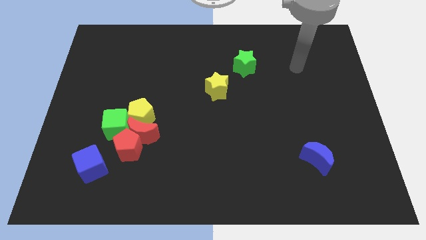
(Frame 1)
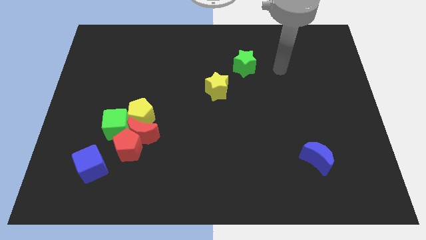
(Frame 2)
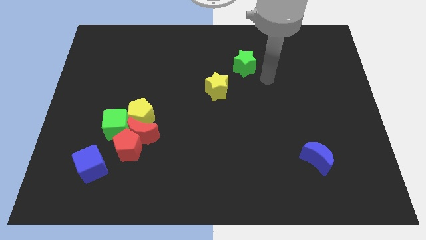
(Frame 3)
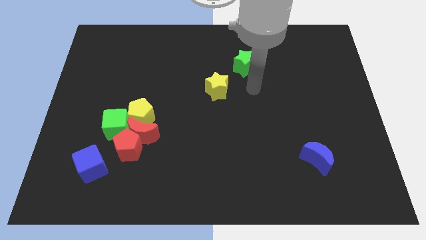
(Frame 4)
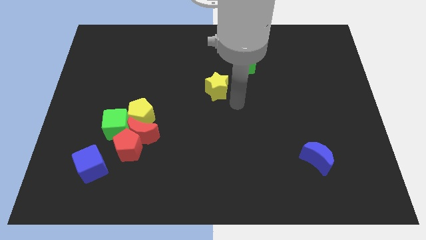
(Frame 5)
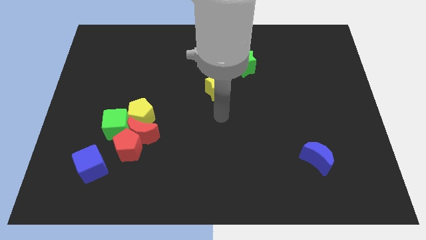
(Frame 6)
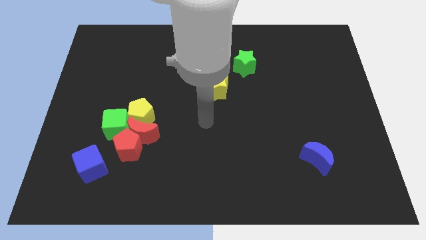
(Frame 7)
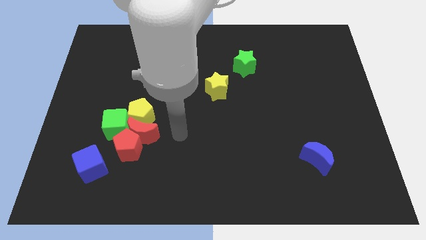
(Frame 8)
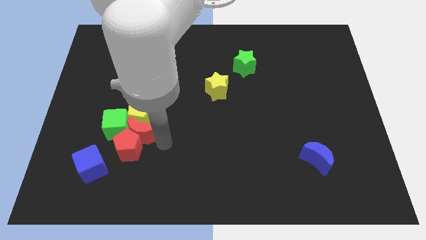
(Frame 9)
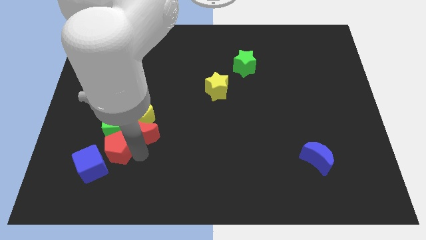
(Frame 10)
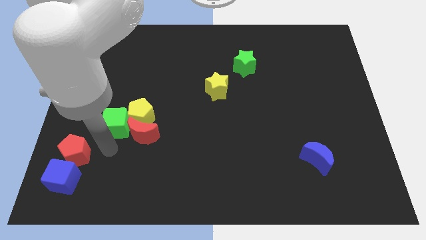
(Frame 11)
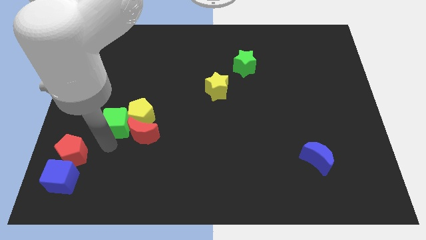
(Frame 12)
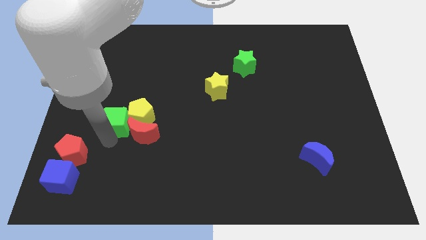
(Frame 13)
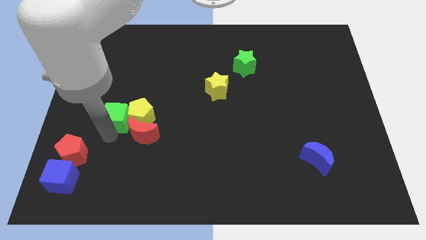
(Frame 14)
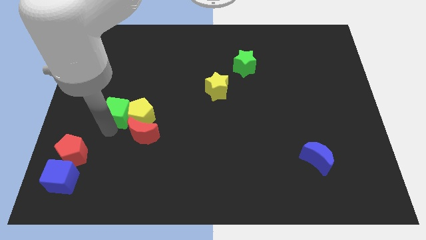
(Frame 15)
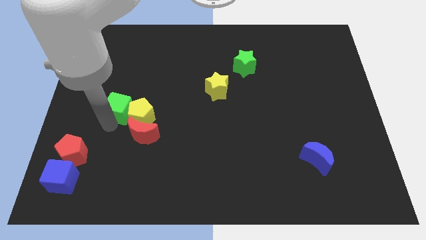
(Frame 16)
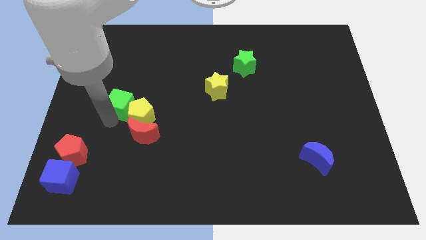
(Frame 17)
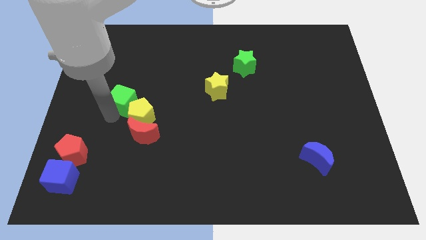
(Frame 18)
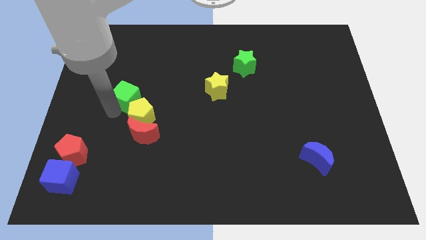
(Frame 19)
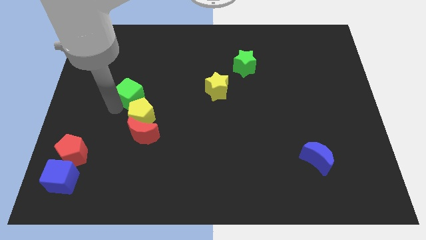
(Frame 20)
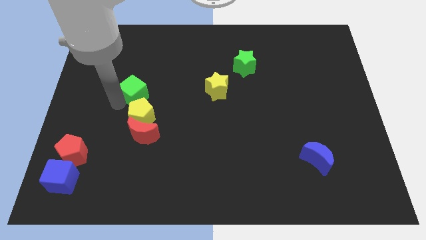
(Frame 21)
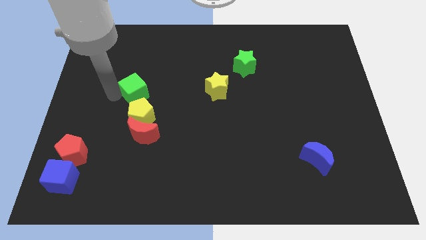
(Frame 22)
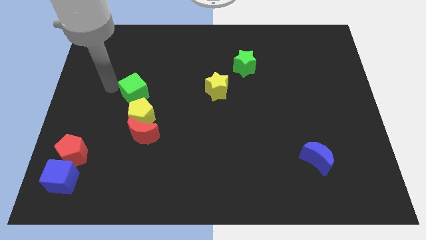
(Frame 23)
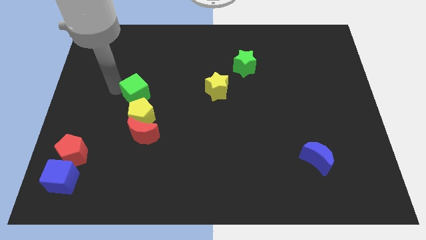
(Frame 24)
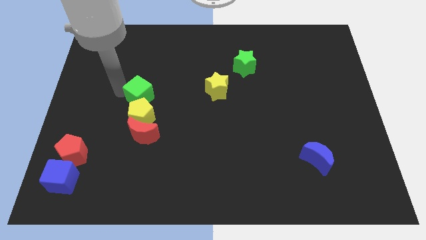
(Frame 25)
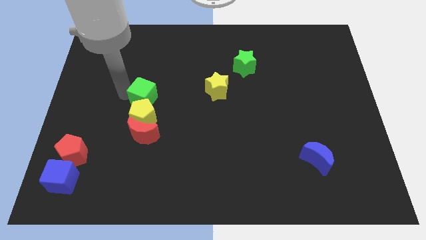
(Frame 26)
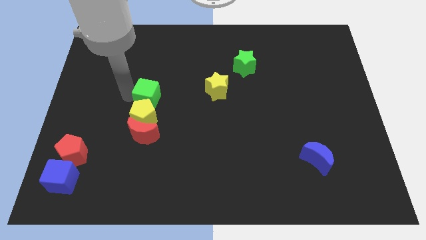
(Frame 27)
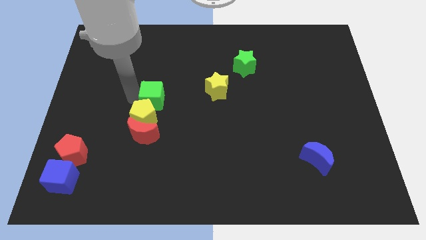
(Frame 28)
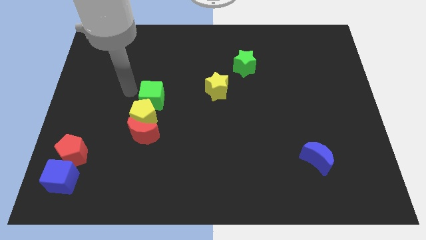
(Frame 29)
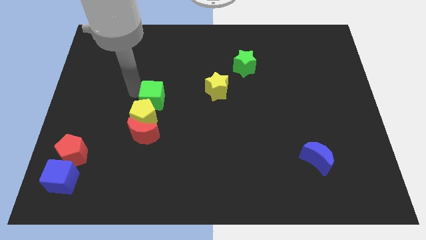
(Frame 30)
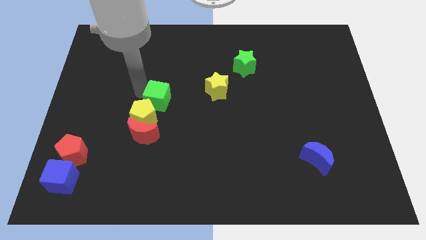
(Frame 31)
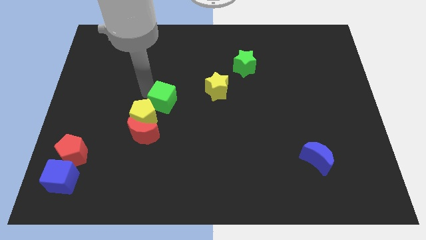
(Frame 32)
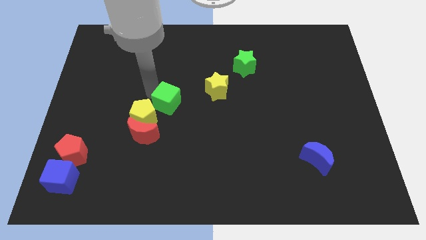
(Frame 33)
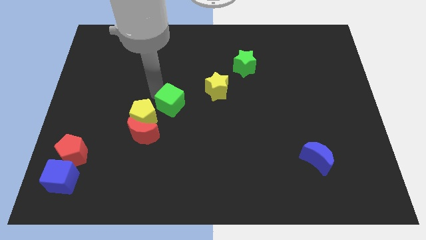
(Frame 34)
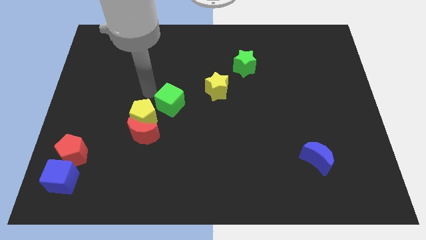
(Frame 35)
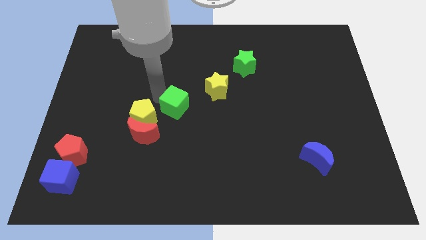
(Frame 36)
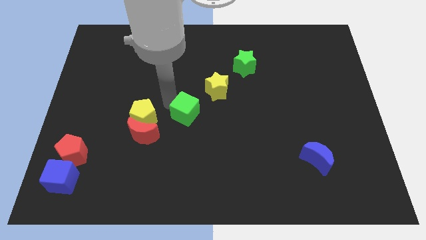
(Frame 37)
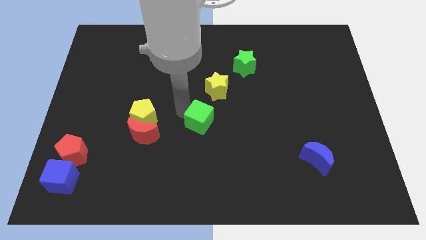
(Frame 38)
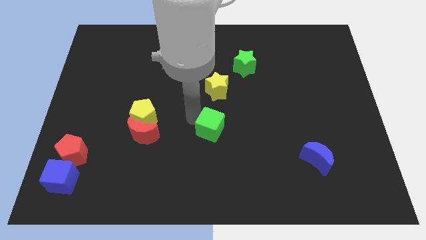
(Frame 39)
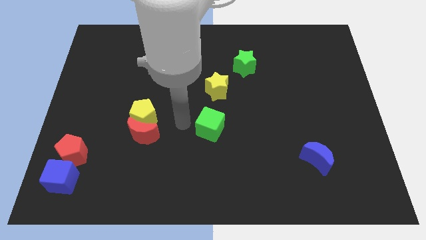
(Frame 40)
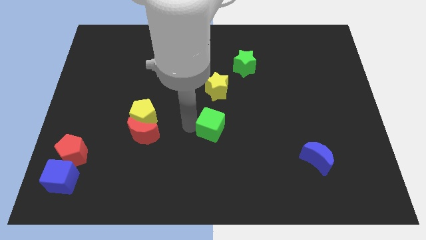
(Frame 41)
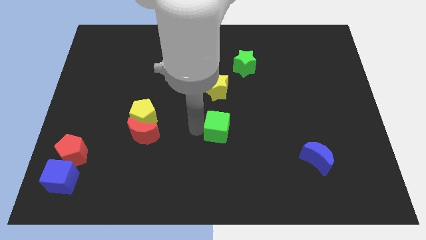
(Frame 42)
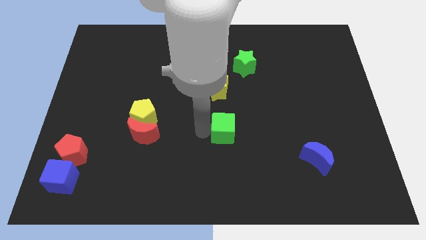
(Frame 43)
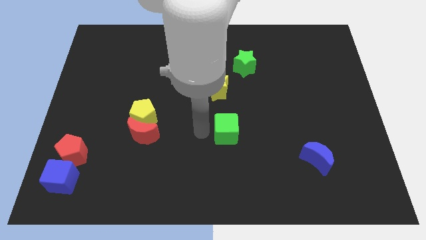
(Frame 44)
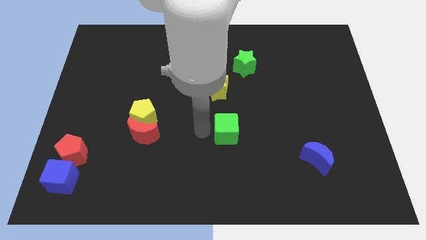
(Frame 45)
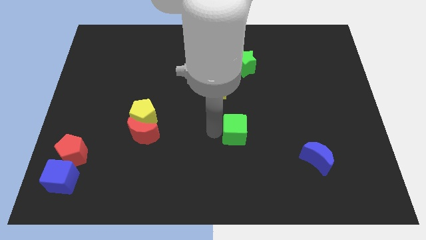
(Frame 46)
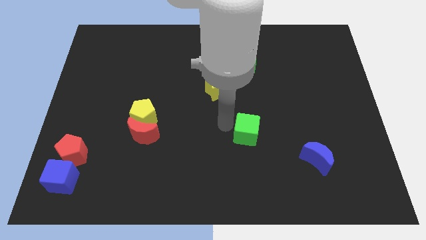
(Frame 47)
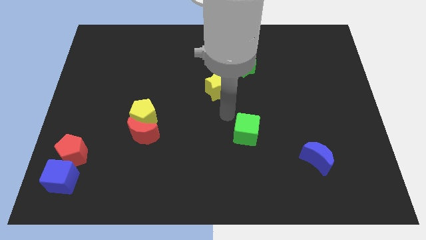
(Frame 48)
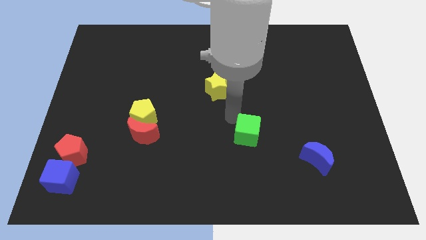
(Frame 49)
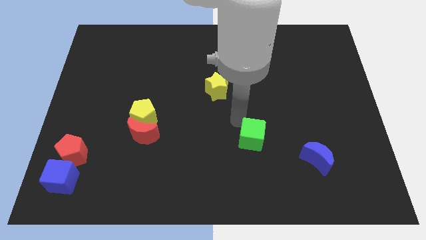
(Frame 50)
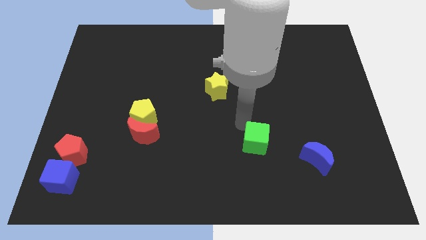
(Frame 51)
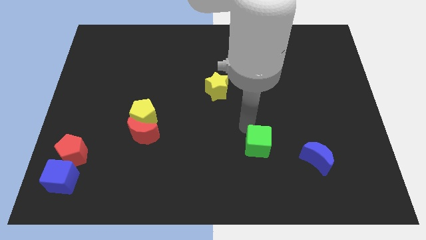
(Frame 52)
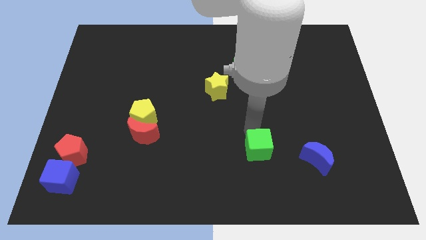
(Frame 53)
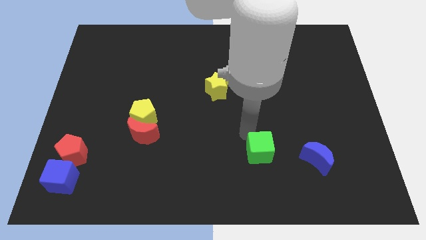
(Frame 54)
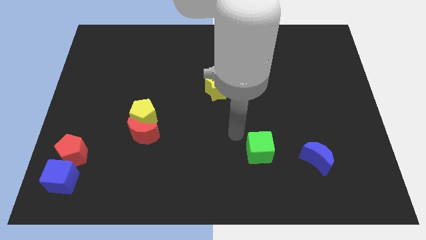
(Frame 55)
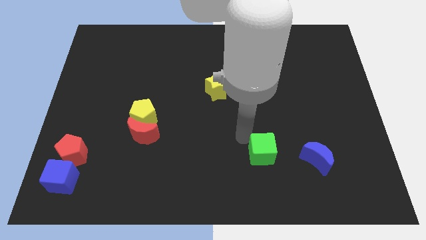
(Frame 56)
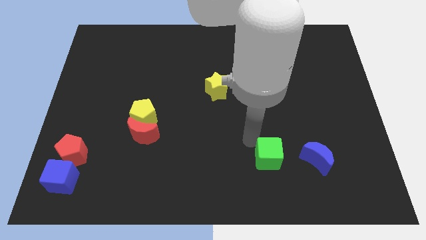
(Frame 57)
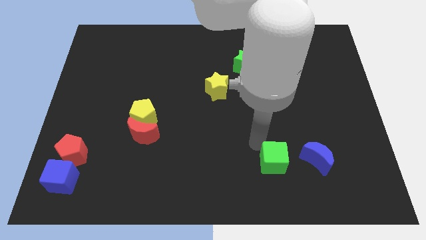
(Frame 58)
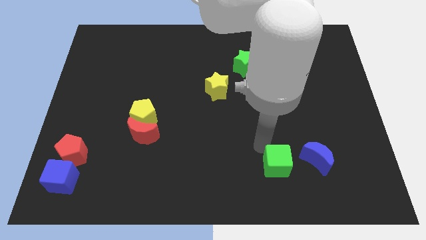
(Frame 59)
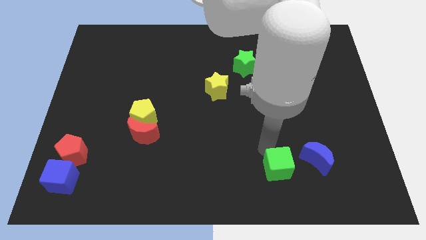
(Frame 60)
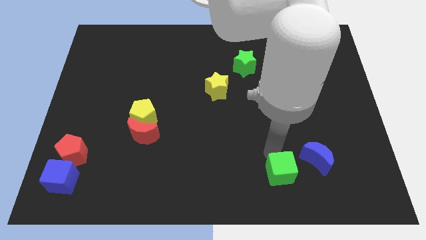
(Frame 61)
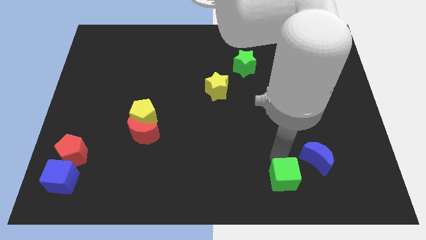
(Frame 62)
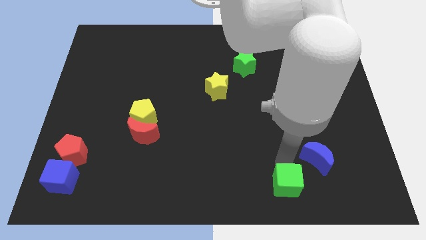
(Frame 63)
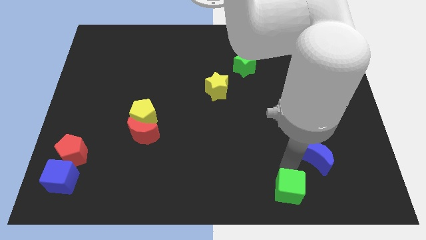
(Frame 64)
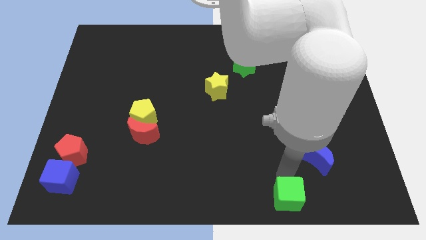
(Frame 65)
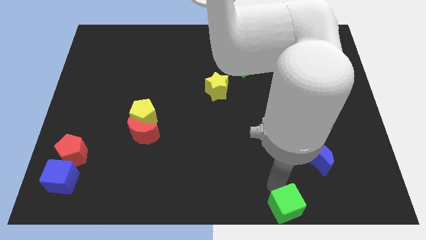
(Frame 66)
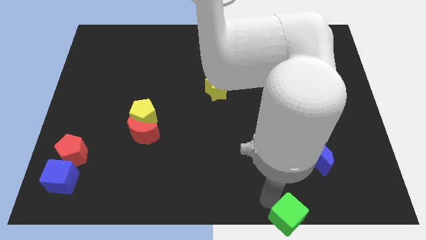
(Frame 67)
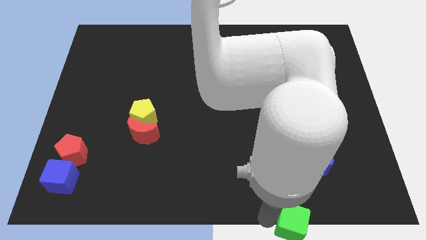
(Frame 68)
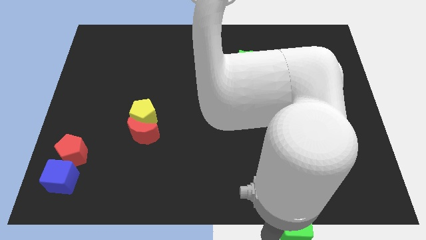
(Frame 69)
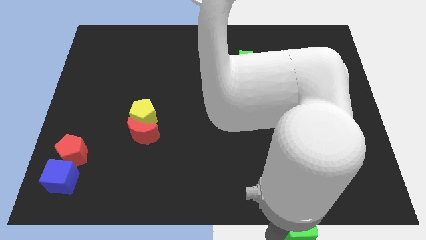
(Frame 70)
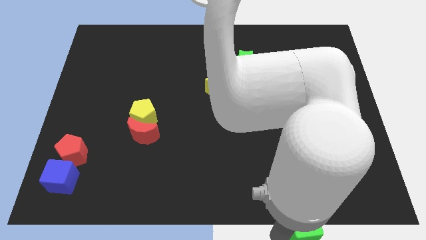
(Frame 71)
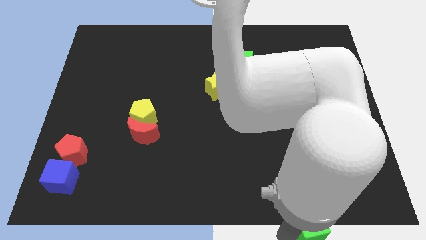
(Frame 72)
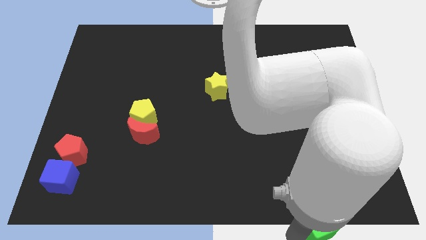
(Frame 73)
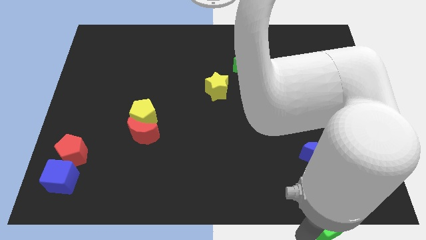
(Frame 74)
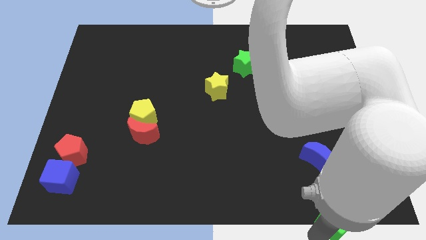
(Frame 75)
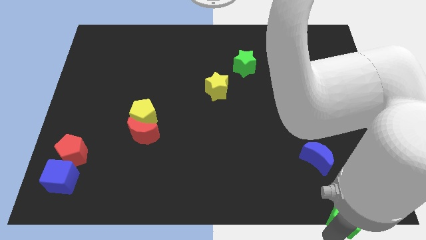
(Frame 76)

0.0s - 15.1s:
move the green cube to the bottom right corner
